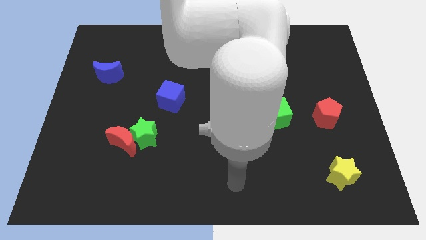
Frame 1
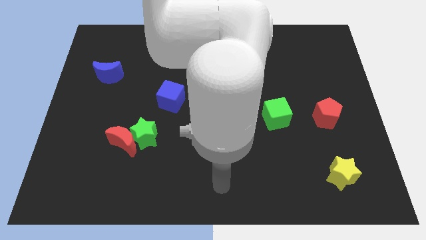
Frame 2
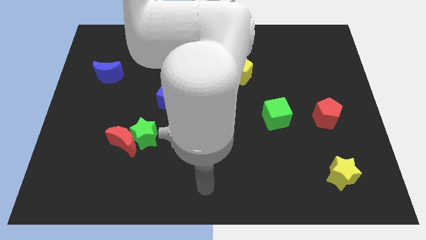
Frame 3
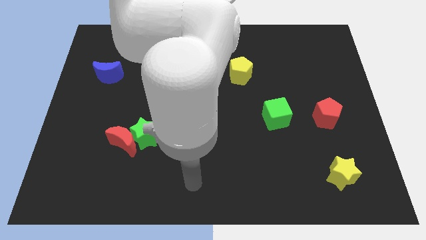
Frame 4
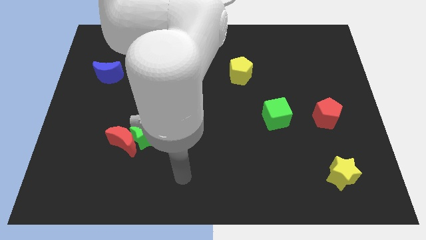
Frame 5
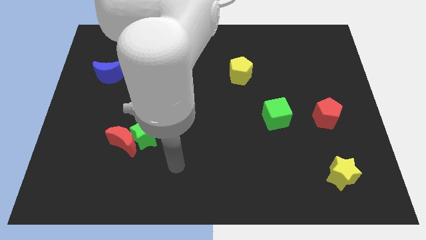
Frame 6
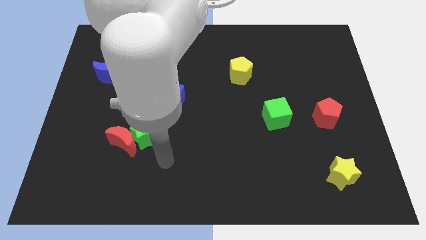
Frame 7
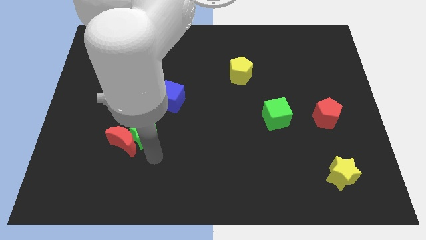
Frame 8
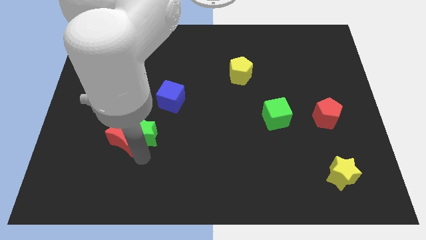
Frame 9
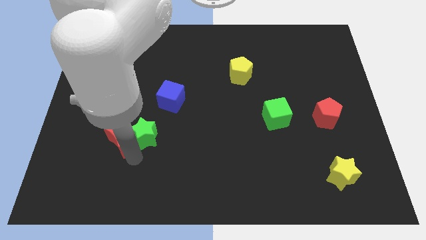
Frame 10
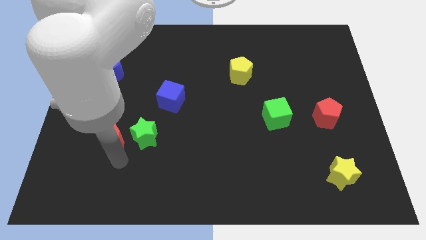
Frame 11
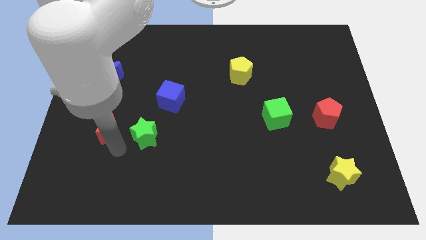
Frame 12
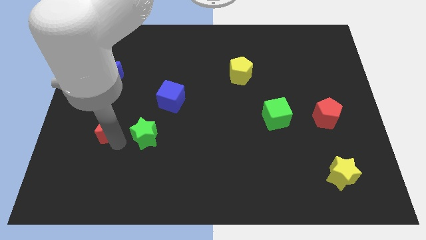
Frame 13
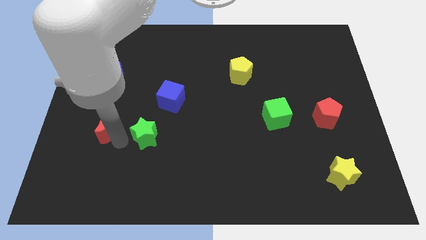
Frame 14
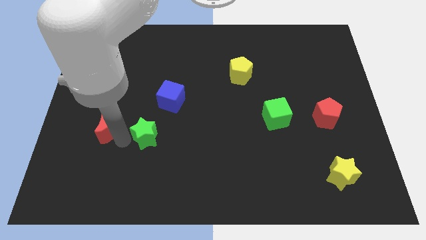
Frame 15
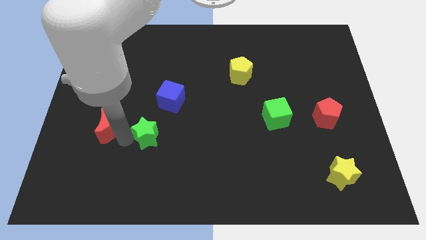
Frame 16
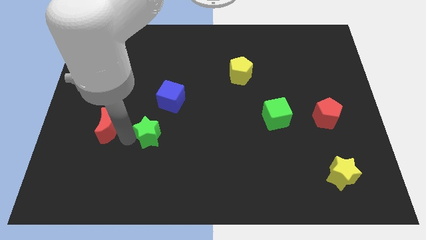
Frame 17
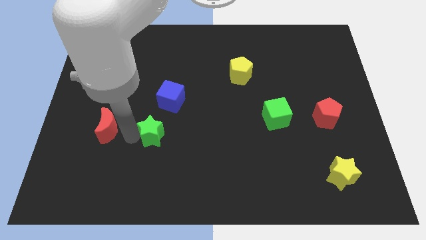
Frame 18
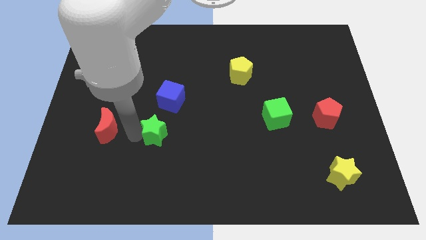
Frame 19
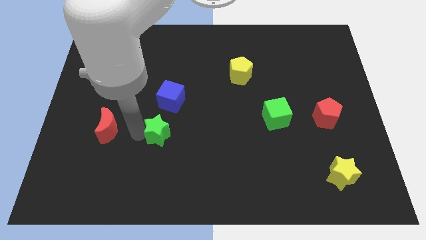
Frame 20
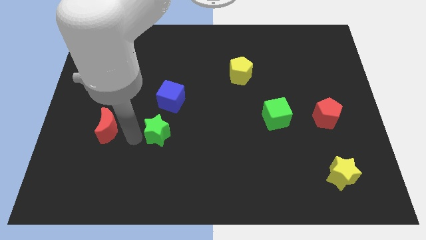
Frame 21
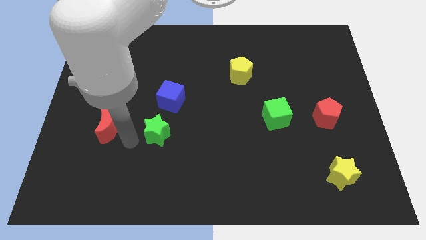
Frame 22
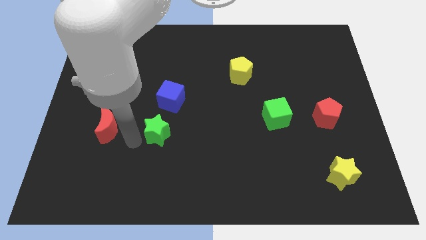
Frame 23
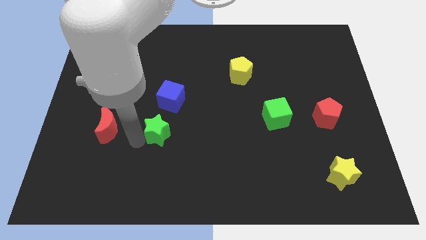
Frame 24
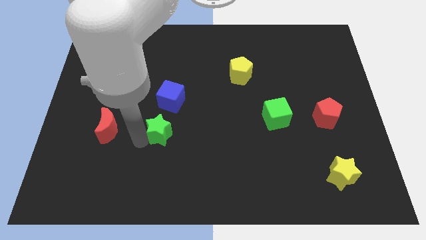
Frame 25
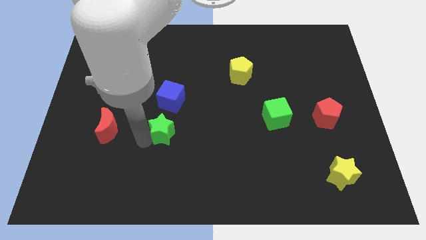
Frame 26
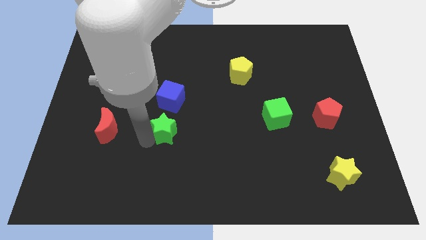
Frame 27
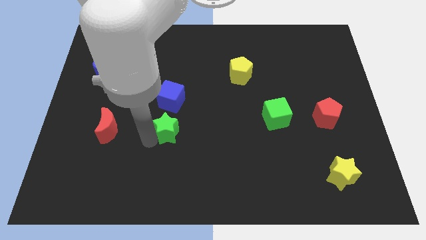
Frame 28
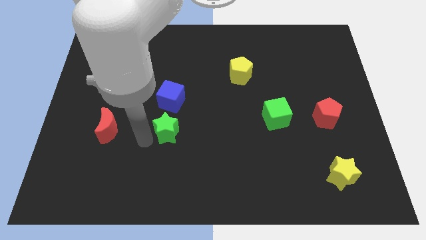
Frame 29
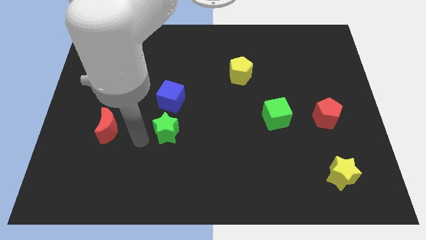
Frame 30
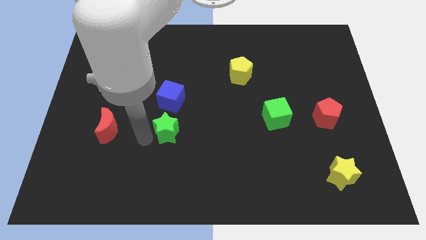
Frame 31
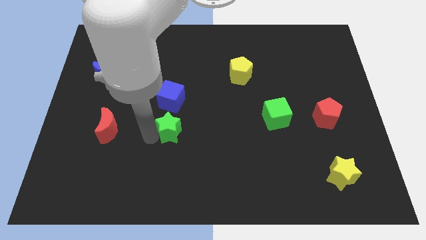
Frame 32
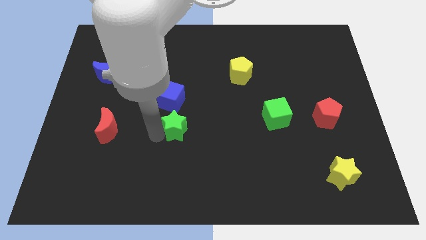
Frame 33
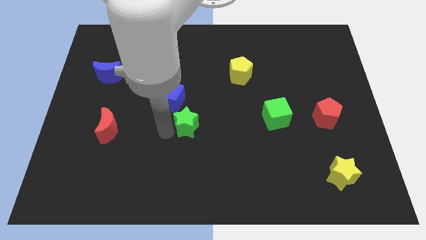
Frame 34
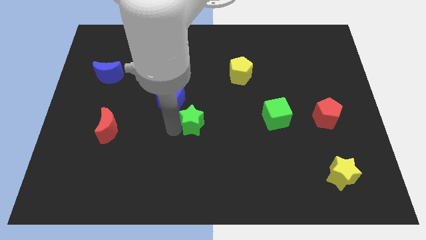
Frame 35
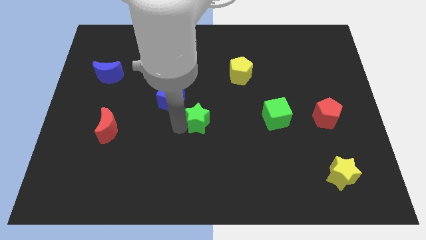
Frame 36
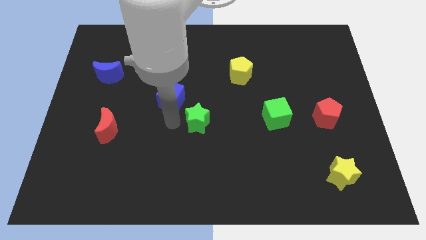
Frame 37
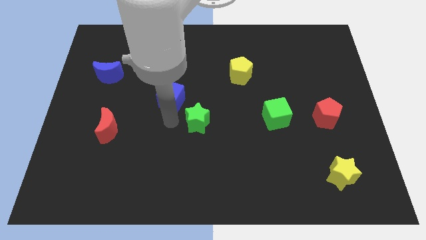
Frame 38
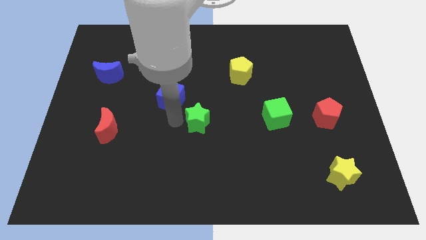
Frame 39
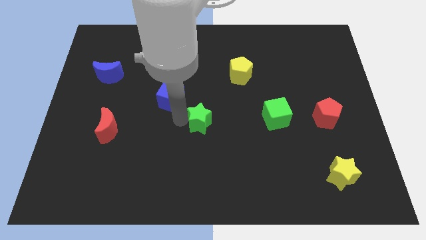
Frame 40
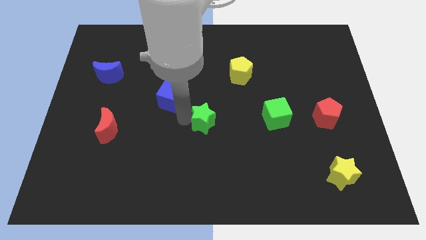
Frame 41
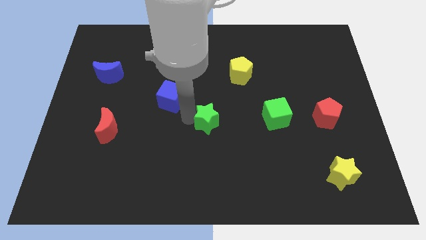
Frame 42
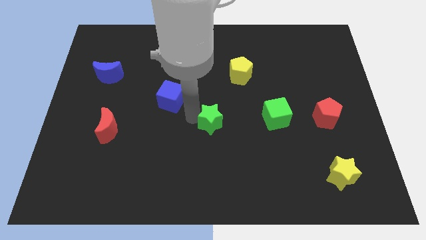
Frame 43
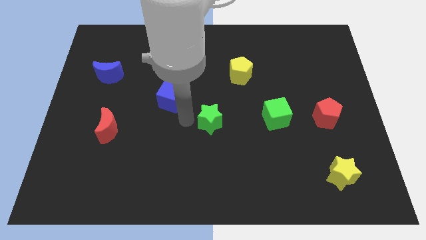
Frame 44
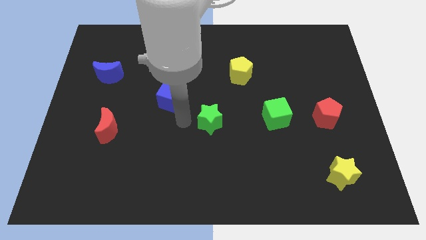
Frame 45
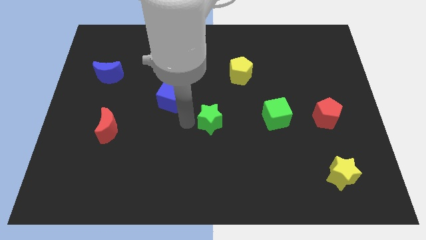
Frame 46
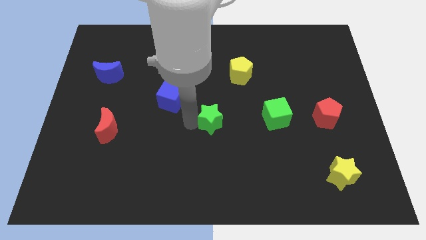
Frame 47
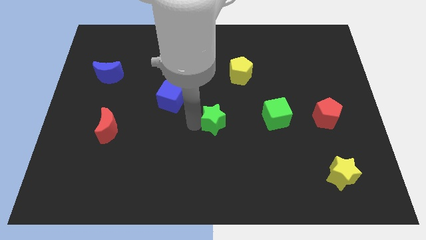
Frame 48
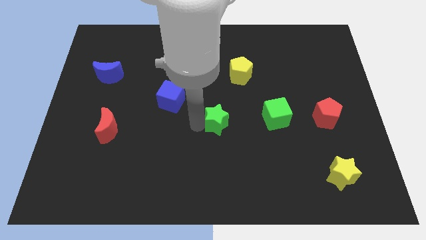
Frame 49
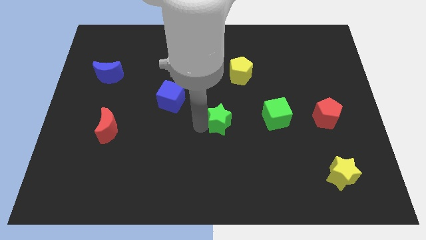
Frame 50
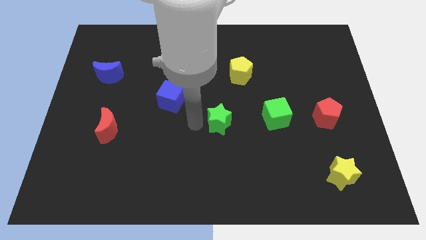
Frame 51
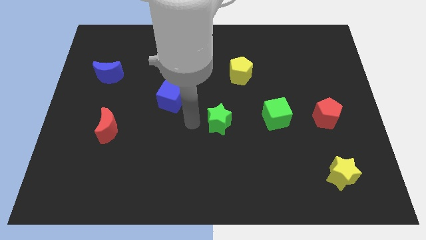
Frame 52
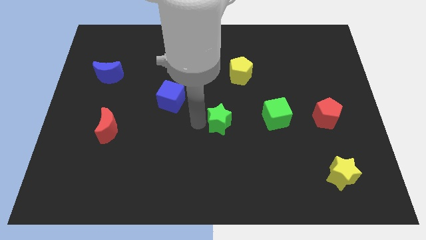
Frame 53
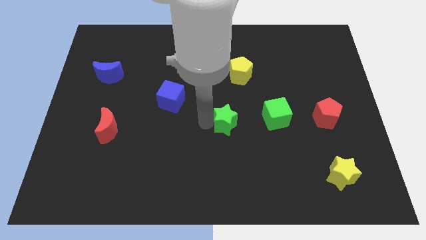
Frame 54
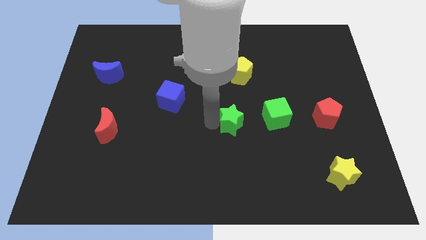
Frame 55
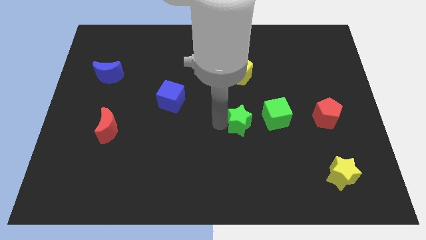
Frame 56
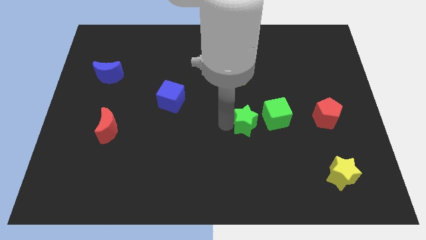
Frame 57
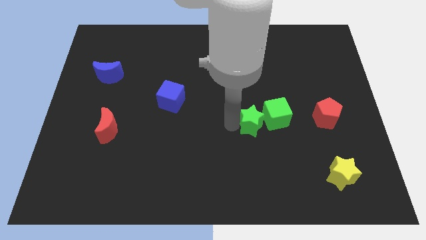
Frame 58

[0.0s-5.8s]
move the green star close to the green cube

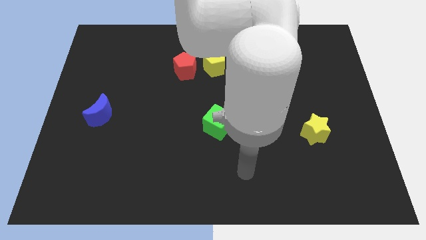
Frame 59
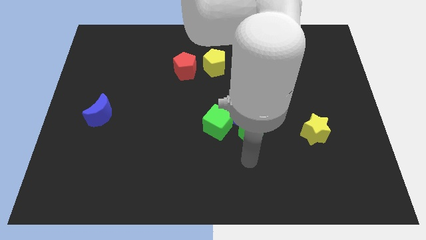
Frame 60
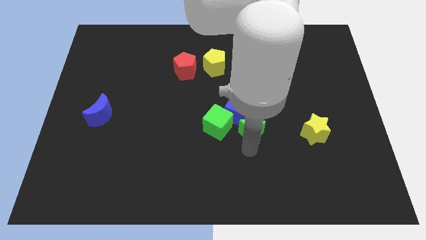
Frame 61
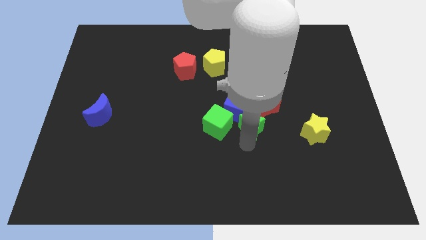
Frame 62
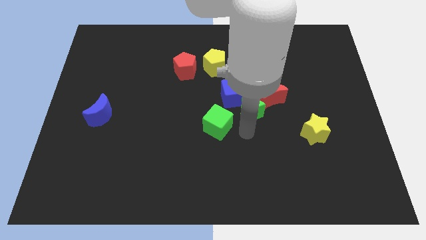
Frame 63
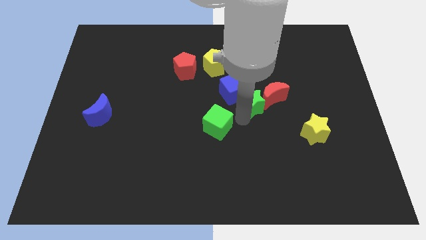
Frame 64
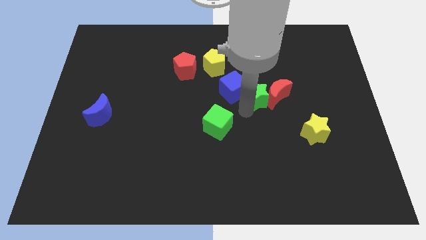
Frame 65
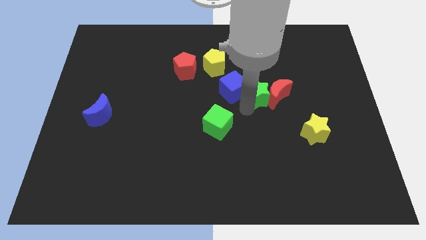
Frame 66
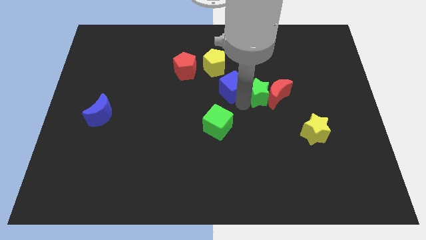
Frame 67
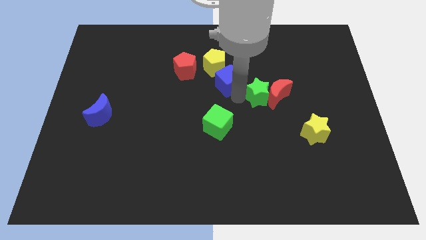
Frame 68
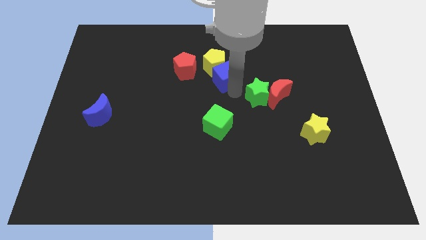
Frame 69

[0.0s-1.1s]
put the blue cube towards the yellow pentagon
